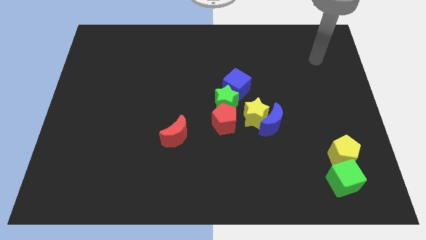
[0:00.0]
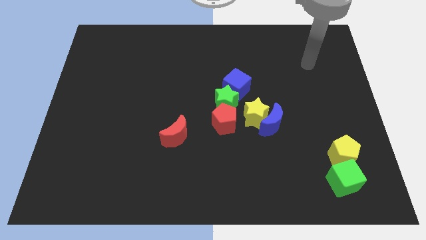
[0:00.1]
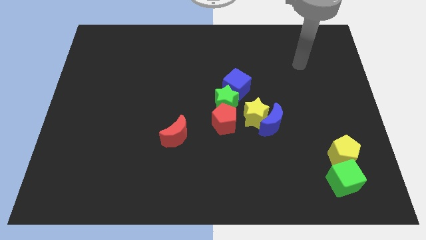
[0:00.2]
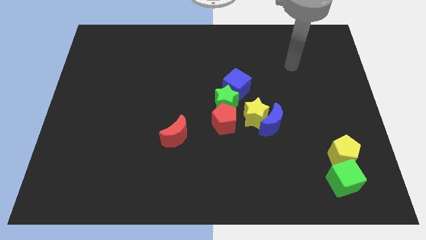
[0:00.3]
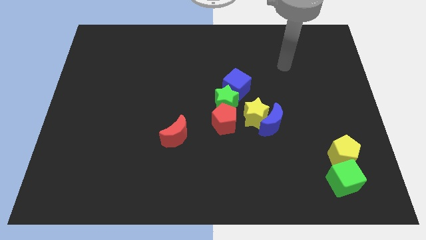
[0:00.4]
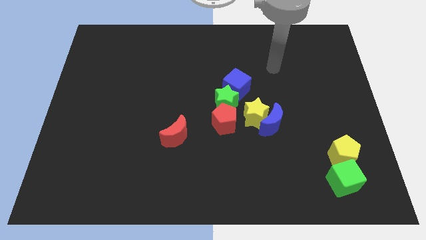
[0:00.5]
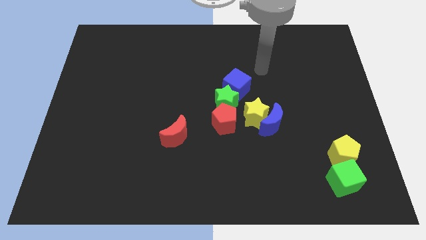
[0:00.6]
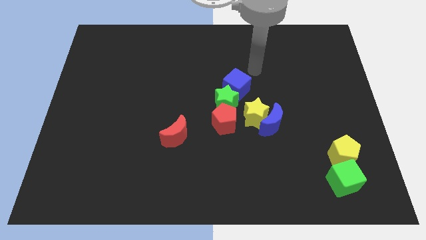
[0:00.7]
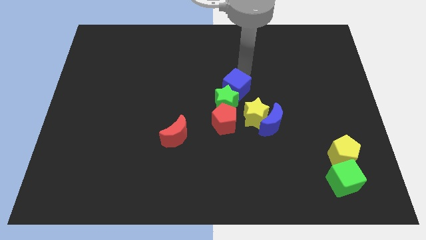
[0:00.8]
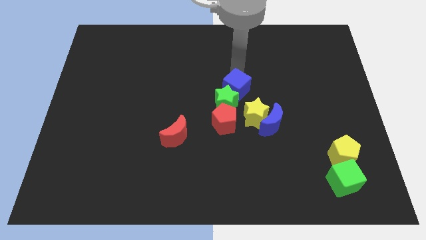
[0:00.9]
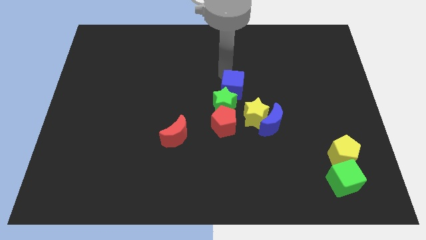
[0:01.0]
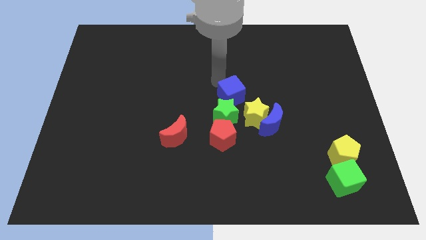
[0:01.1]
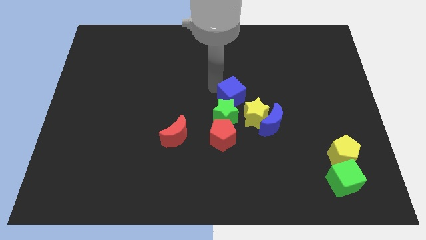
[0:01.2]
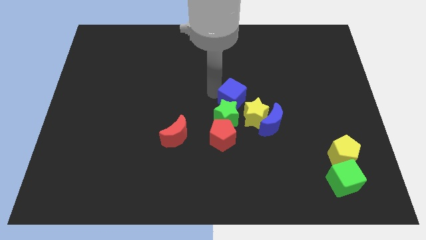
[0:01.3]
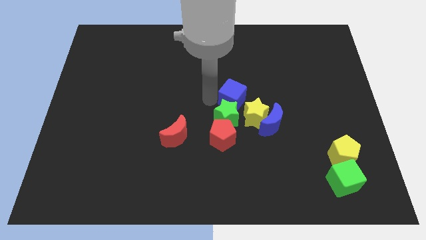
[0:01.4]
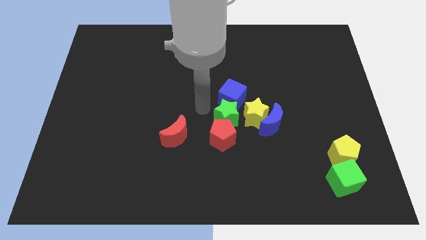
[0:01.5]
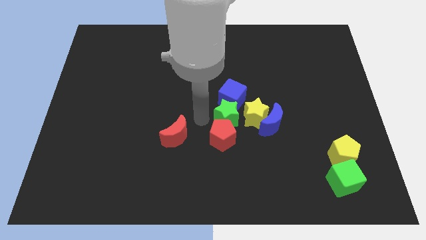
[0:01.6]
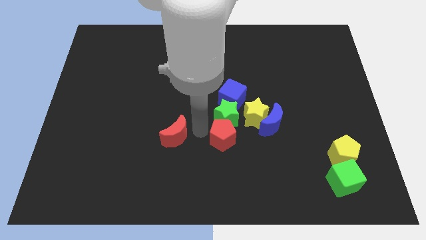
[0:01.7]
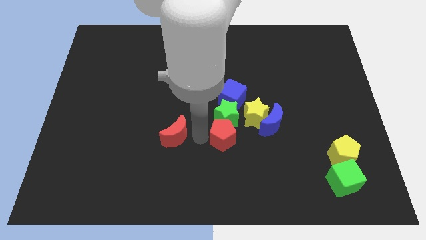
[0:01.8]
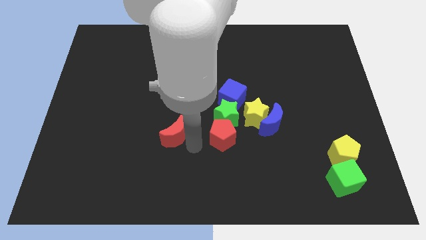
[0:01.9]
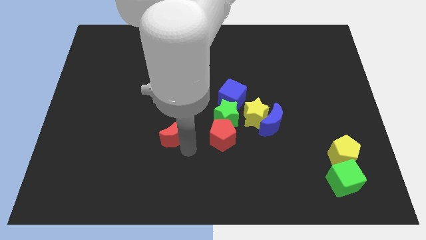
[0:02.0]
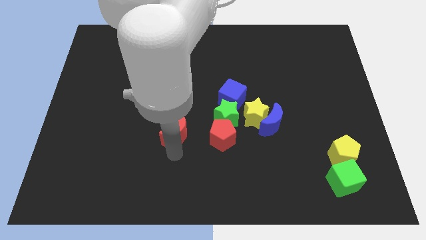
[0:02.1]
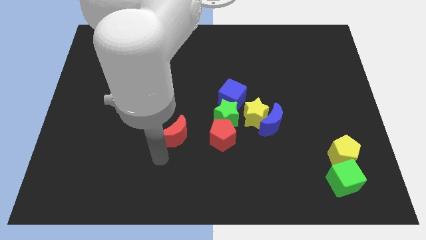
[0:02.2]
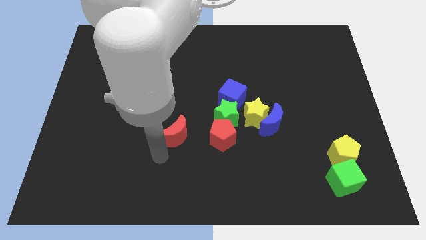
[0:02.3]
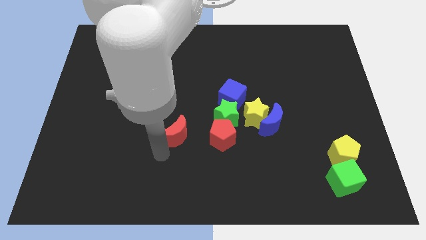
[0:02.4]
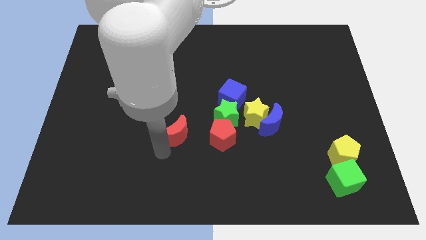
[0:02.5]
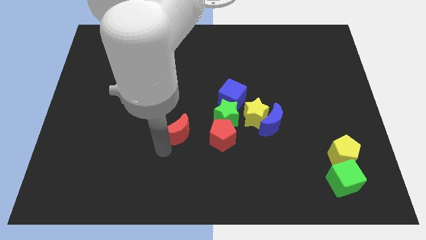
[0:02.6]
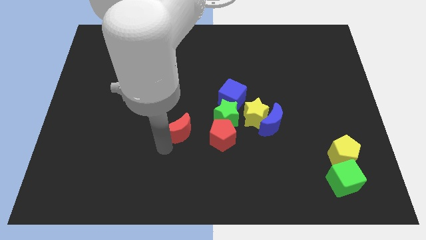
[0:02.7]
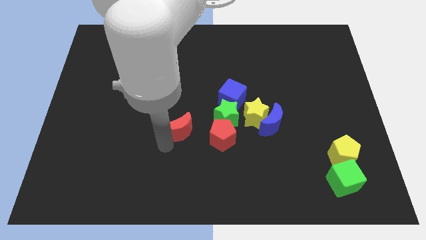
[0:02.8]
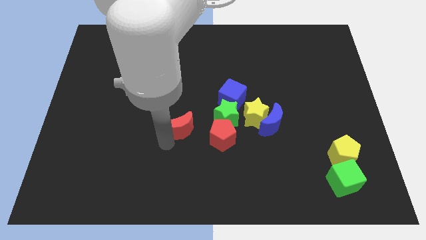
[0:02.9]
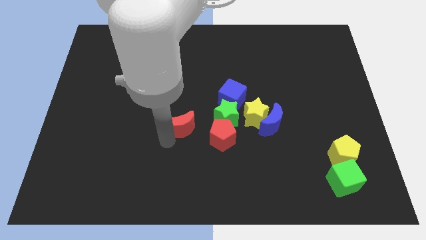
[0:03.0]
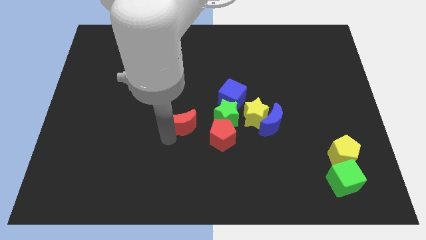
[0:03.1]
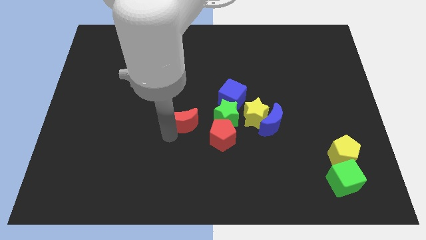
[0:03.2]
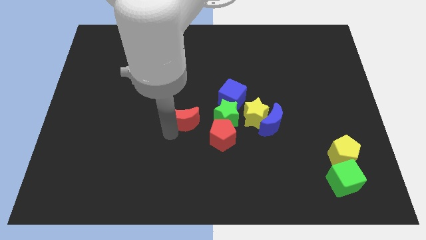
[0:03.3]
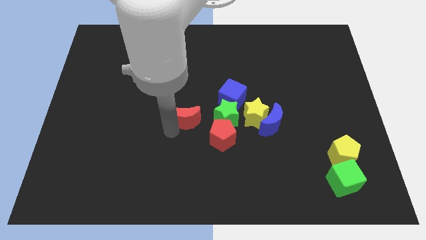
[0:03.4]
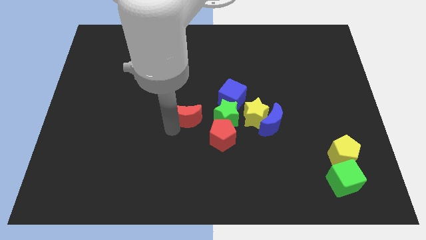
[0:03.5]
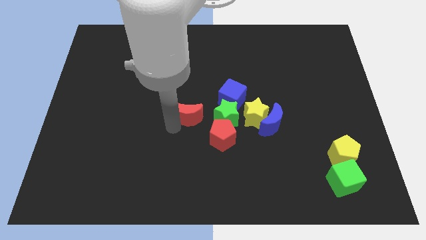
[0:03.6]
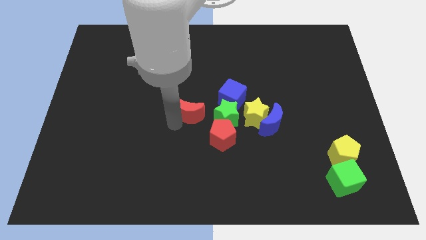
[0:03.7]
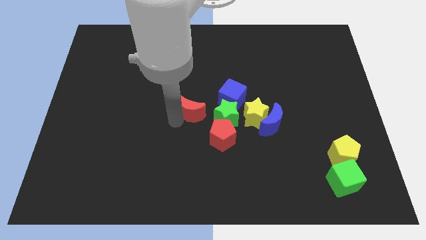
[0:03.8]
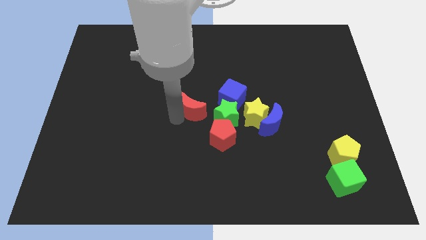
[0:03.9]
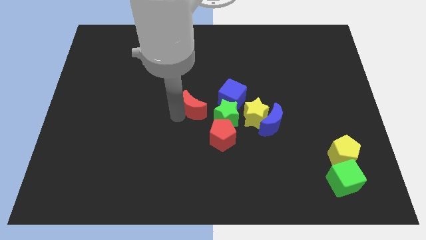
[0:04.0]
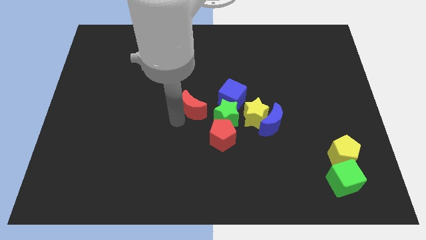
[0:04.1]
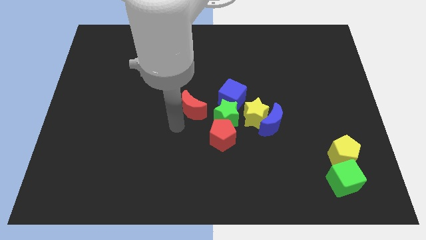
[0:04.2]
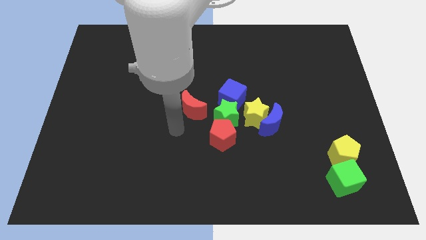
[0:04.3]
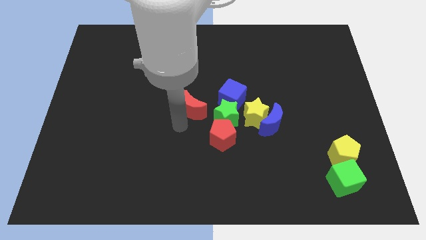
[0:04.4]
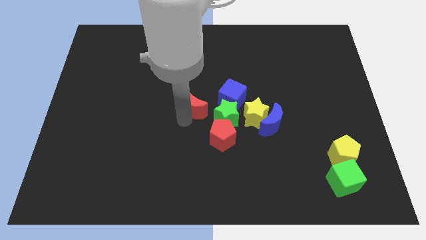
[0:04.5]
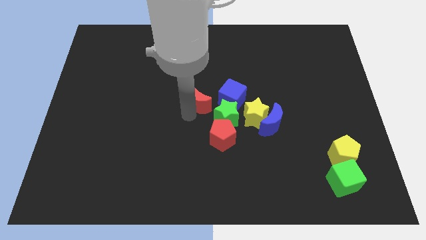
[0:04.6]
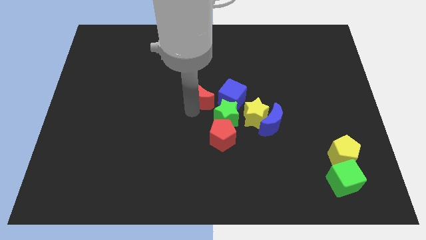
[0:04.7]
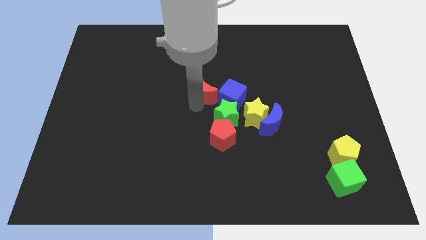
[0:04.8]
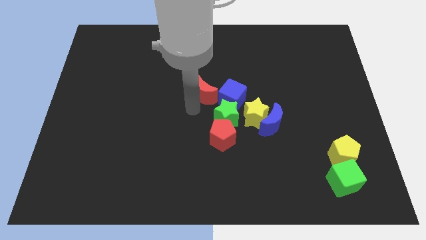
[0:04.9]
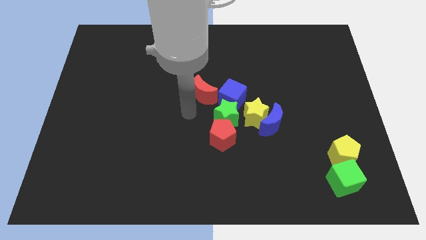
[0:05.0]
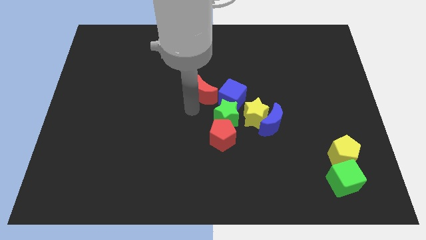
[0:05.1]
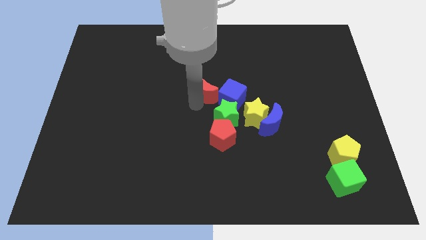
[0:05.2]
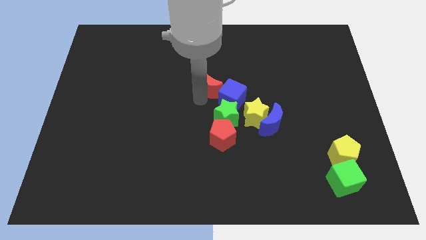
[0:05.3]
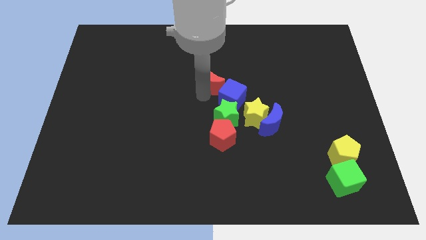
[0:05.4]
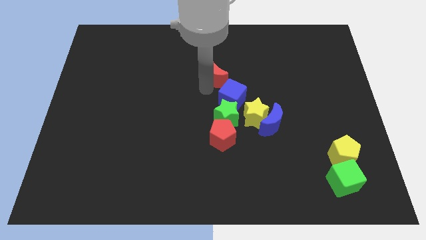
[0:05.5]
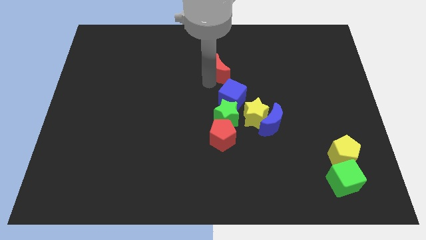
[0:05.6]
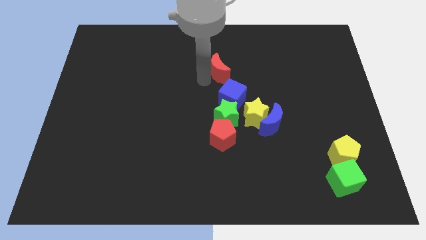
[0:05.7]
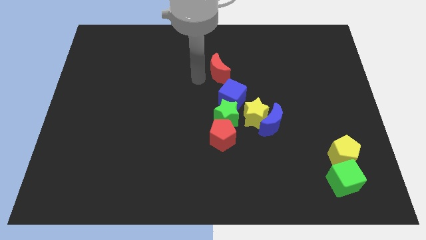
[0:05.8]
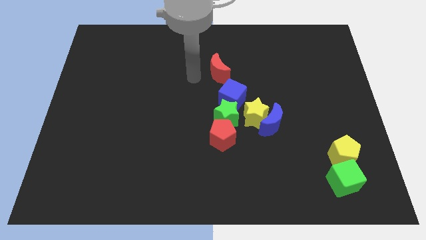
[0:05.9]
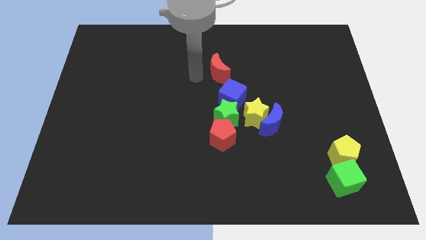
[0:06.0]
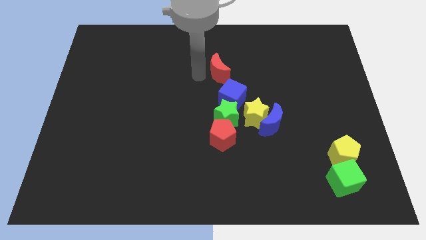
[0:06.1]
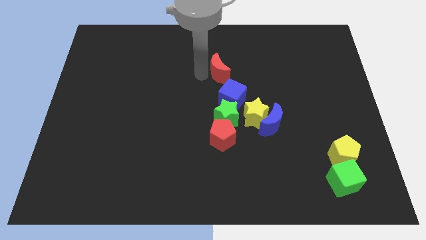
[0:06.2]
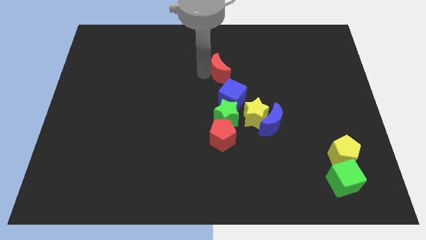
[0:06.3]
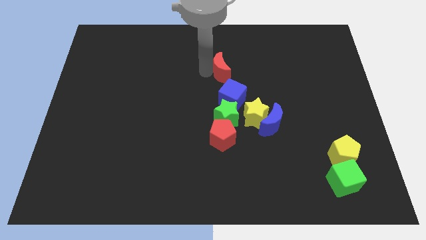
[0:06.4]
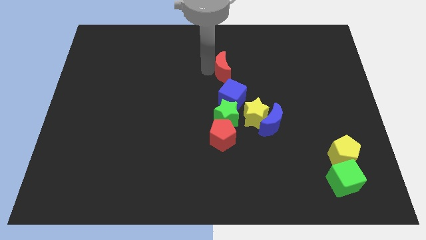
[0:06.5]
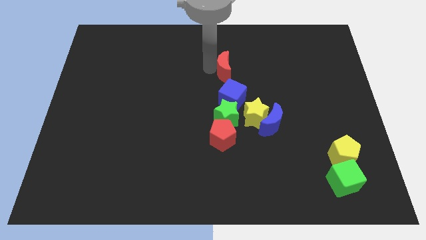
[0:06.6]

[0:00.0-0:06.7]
slide the red moon up and to the right

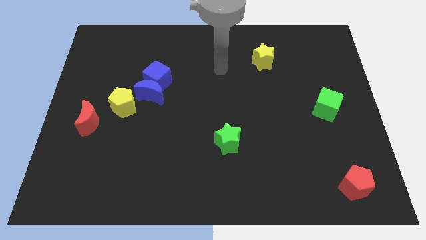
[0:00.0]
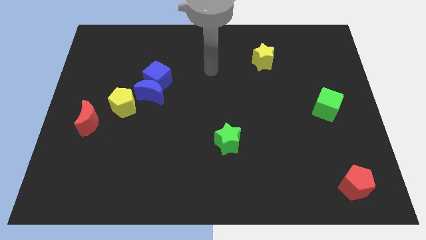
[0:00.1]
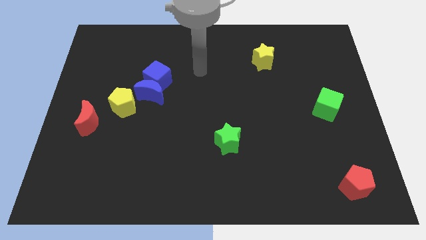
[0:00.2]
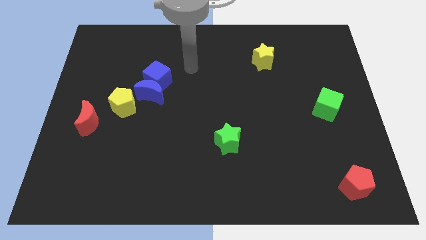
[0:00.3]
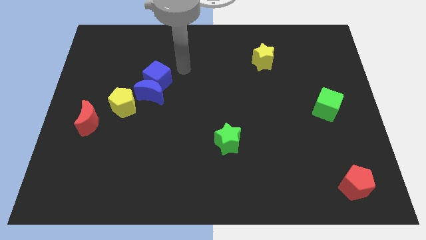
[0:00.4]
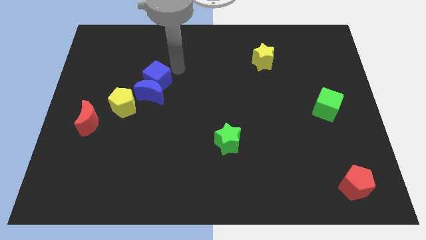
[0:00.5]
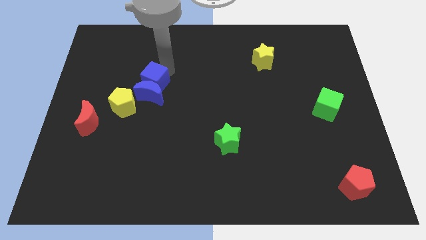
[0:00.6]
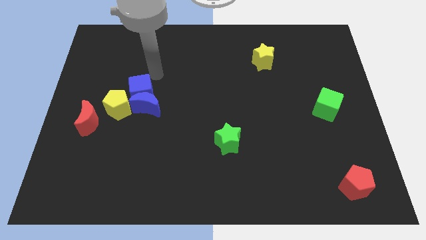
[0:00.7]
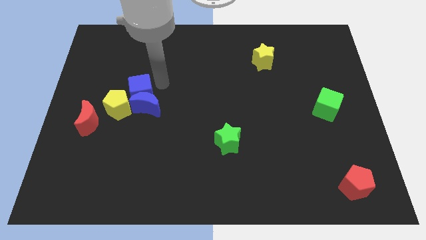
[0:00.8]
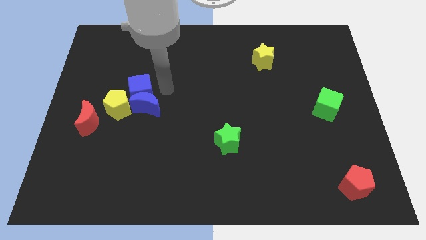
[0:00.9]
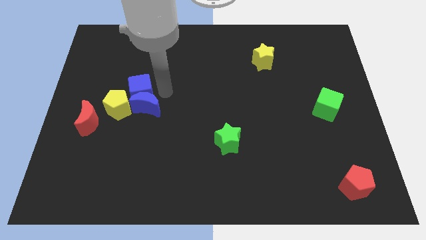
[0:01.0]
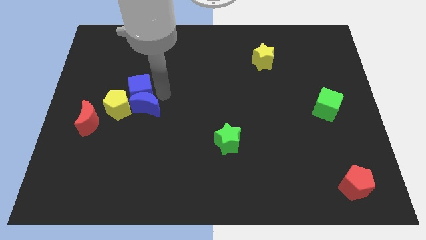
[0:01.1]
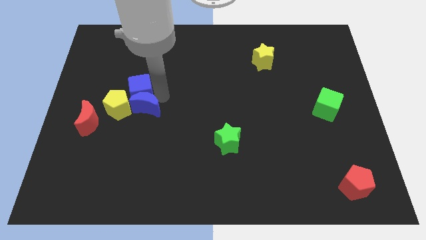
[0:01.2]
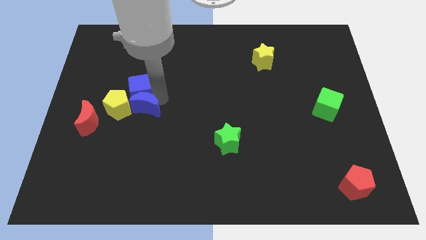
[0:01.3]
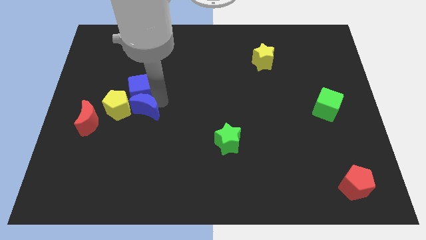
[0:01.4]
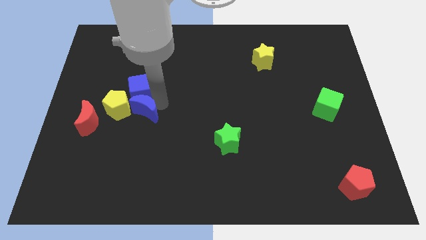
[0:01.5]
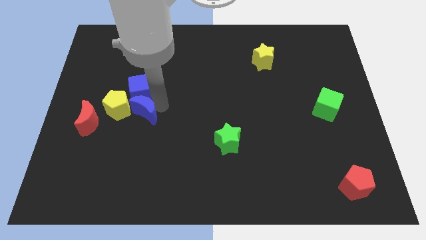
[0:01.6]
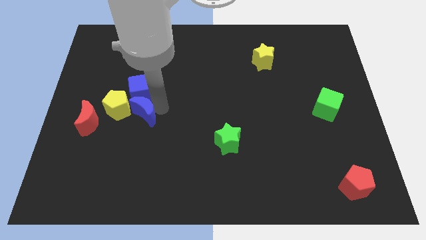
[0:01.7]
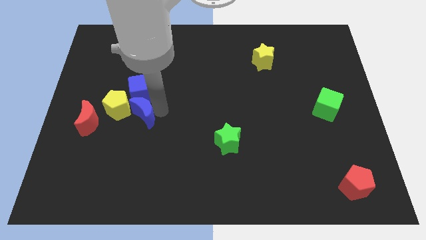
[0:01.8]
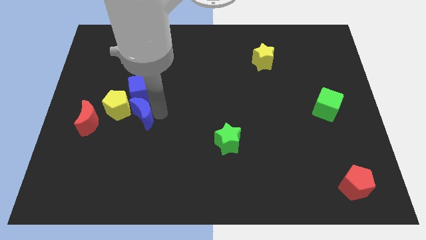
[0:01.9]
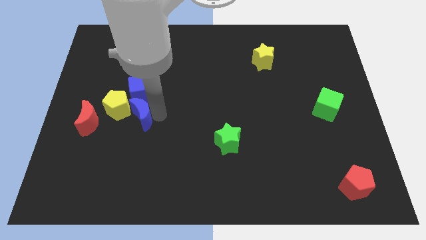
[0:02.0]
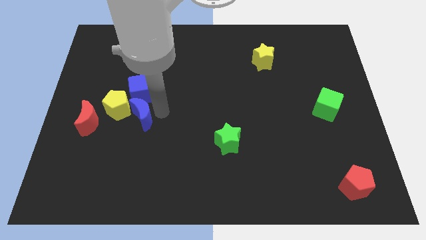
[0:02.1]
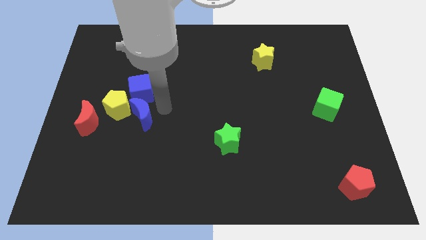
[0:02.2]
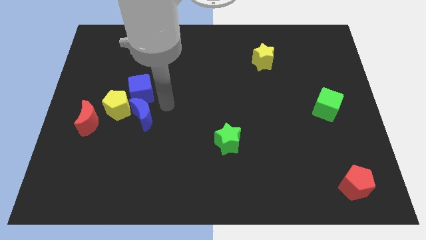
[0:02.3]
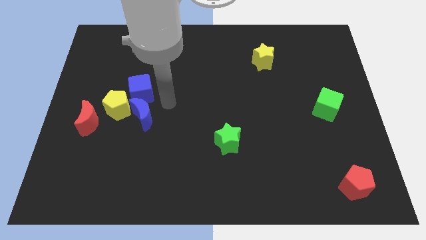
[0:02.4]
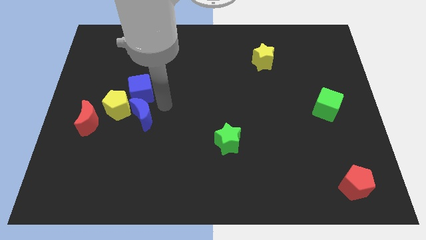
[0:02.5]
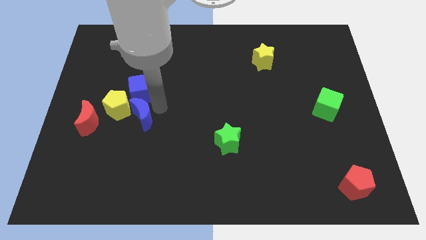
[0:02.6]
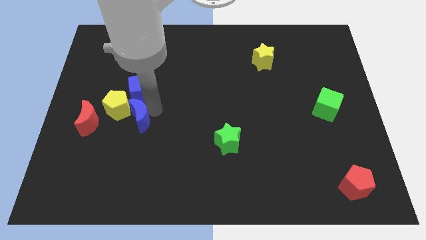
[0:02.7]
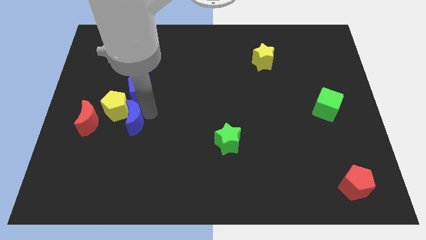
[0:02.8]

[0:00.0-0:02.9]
slightly move the blue moon downwards and to the left diagonally
